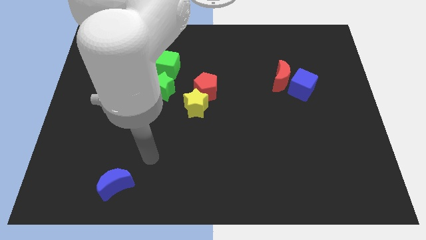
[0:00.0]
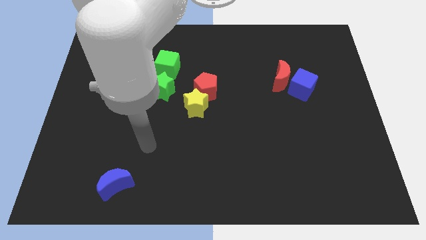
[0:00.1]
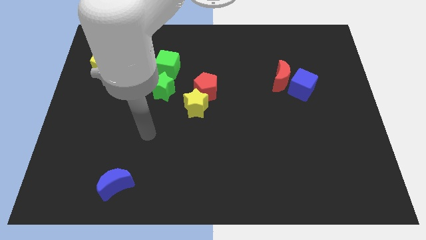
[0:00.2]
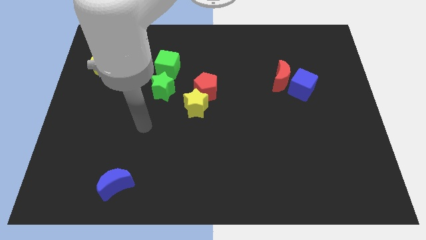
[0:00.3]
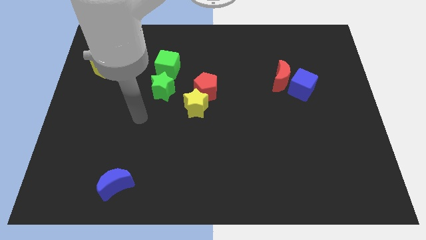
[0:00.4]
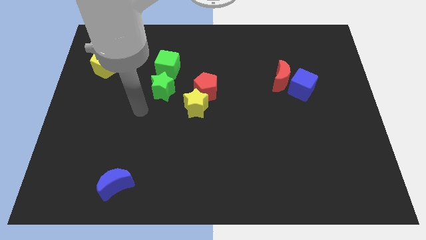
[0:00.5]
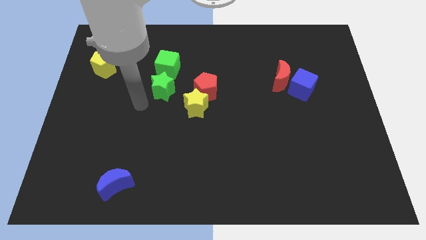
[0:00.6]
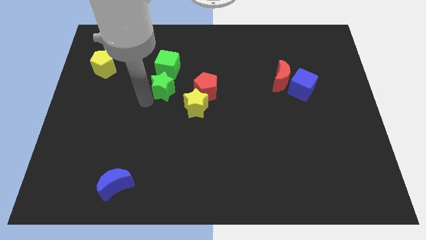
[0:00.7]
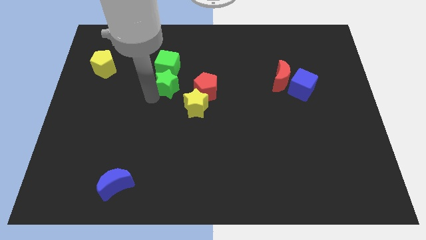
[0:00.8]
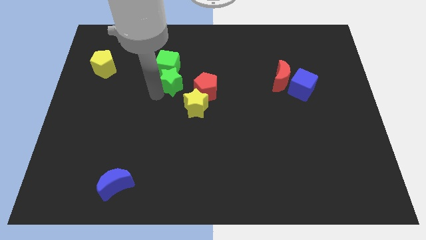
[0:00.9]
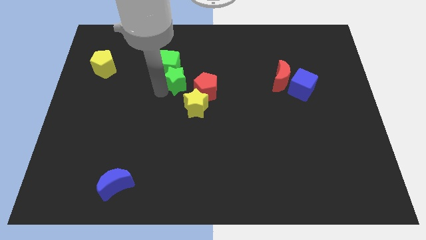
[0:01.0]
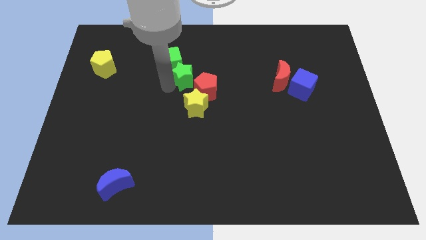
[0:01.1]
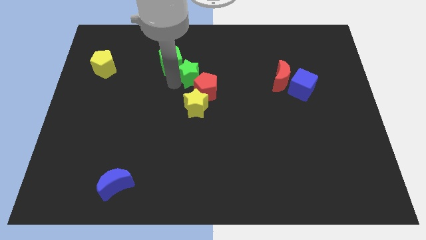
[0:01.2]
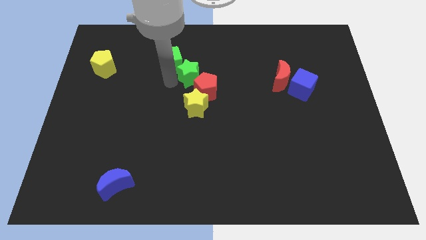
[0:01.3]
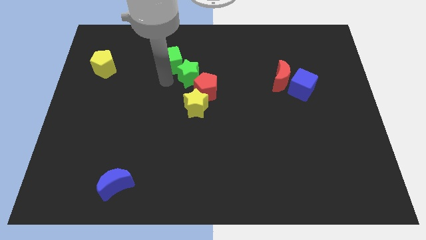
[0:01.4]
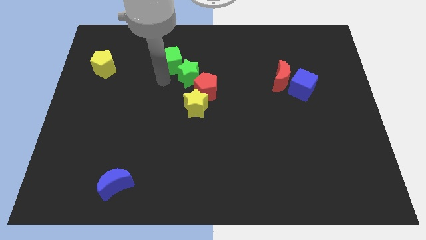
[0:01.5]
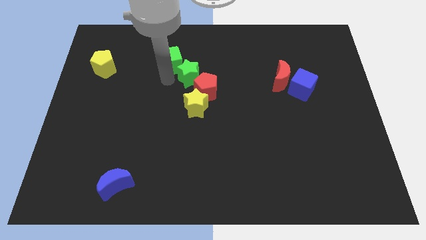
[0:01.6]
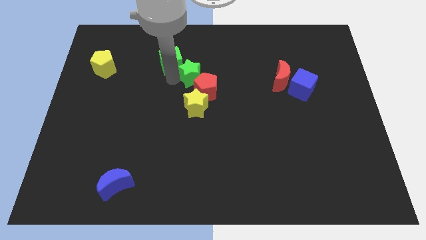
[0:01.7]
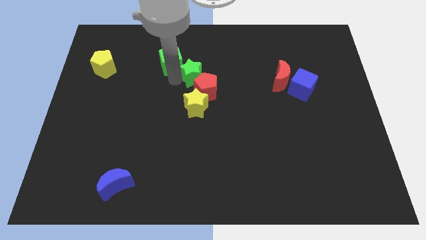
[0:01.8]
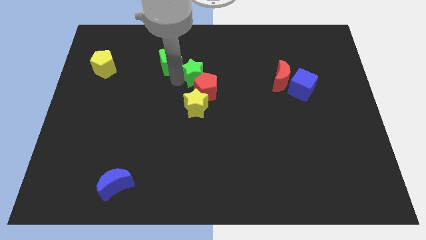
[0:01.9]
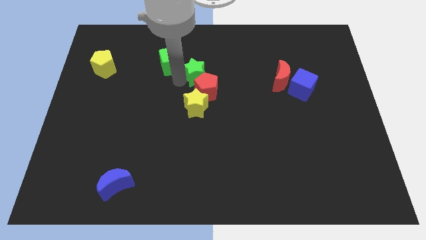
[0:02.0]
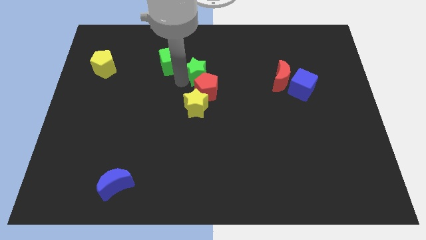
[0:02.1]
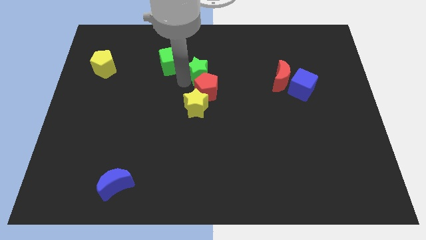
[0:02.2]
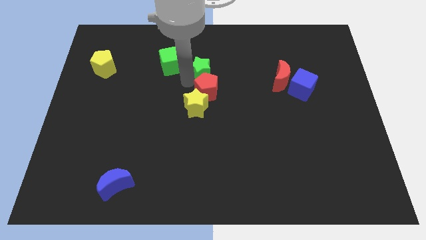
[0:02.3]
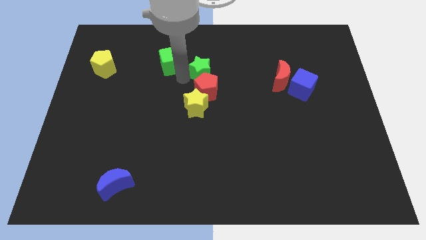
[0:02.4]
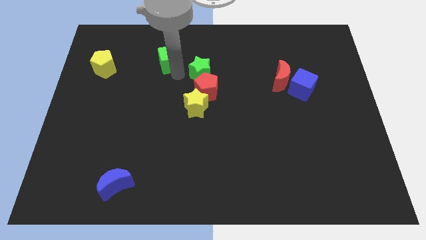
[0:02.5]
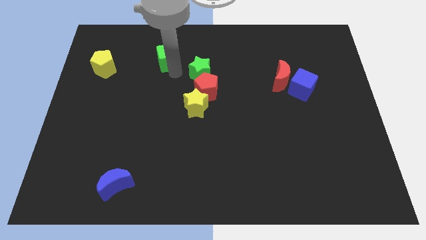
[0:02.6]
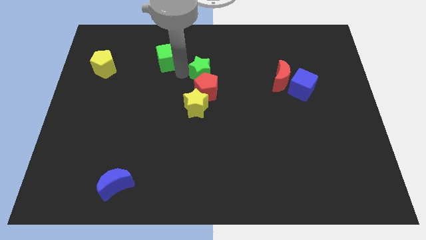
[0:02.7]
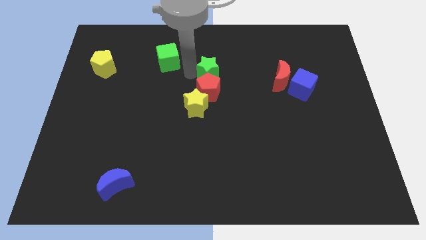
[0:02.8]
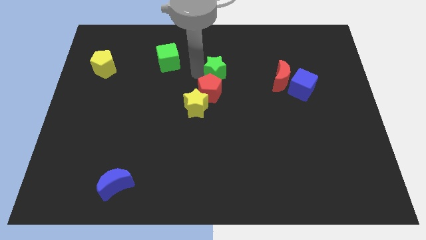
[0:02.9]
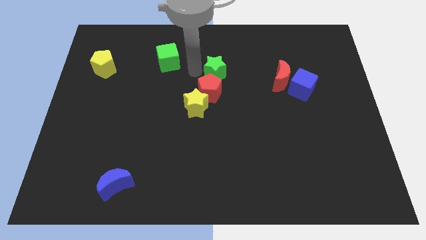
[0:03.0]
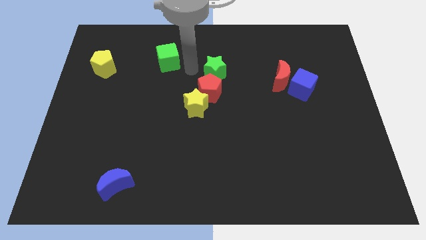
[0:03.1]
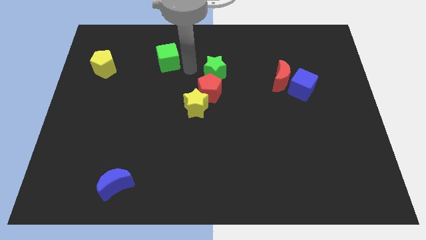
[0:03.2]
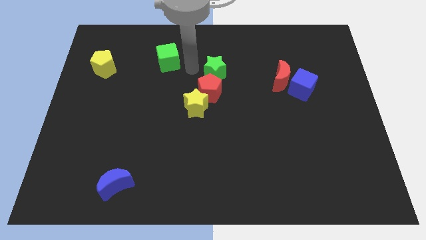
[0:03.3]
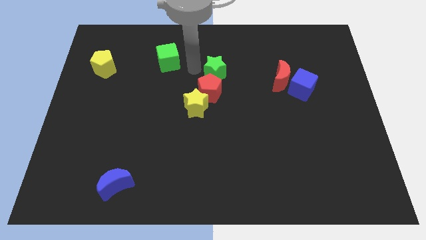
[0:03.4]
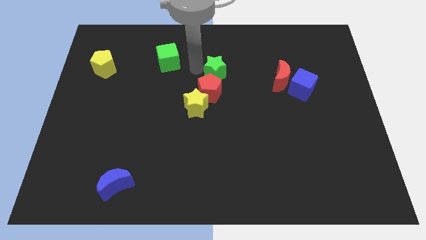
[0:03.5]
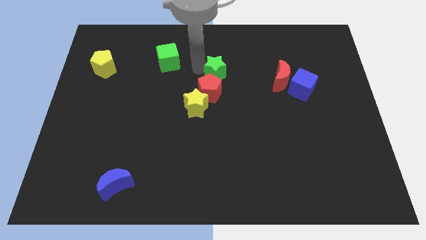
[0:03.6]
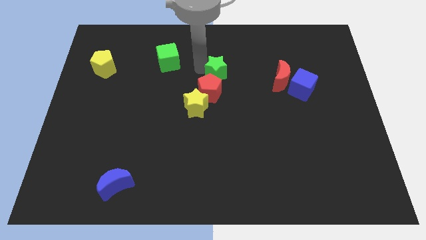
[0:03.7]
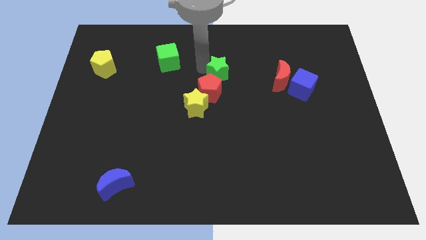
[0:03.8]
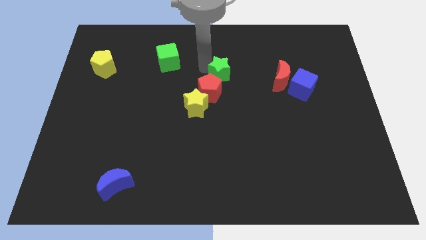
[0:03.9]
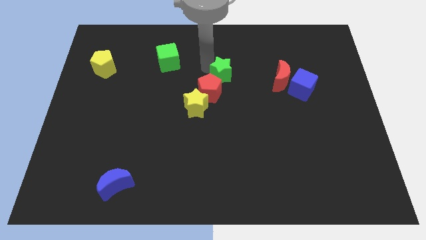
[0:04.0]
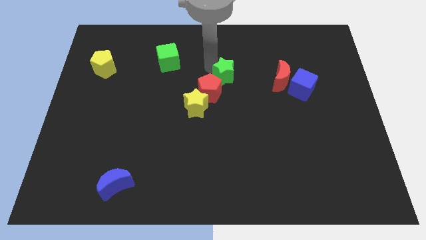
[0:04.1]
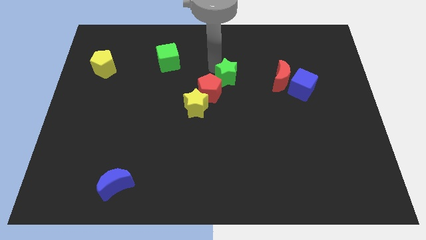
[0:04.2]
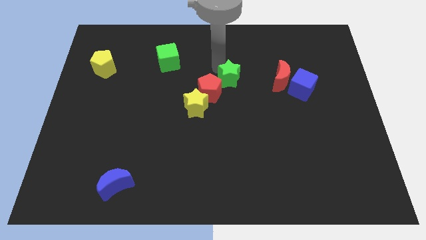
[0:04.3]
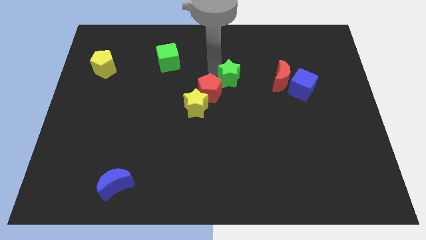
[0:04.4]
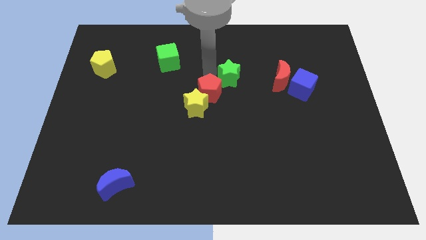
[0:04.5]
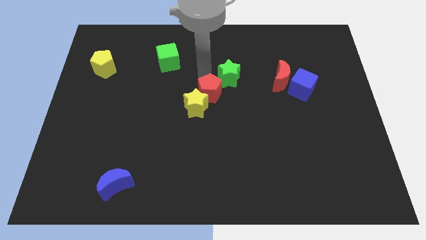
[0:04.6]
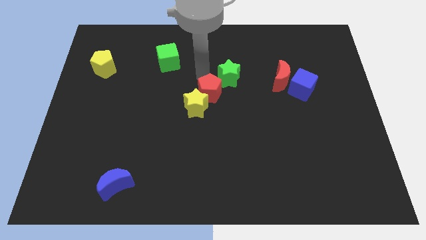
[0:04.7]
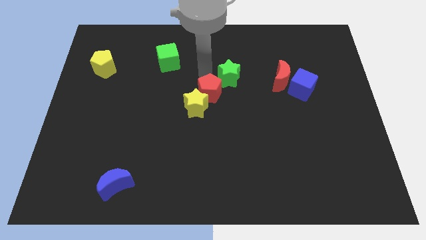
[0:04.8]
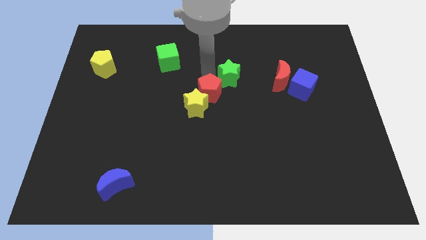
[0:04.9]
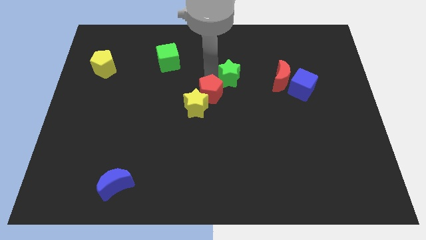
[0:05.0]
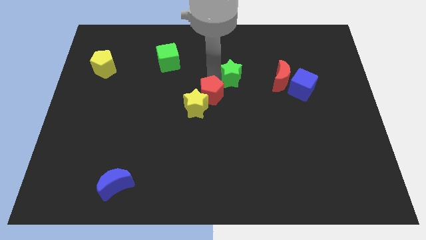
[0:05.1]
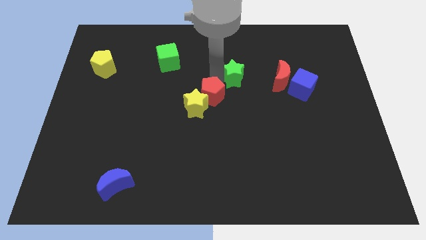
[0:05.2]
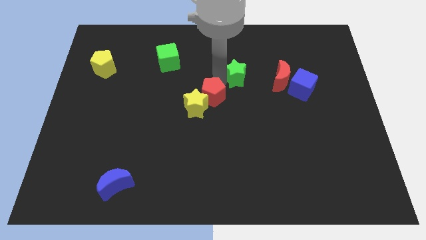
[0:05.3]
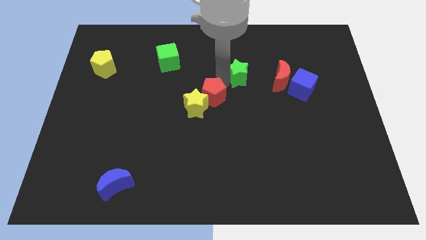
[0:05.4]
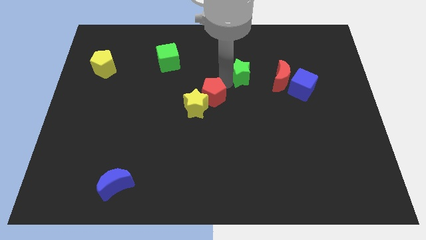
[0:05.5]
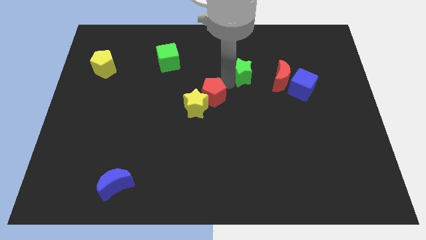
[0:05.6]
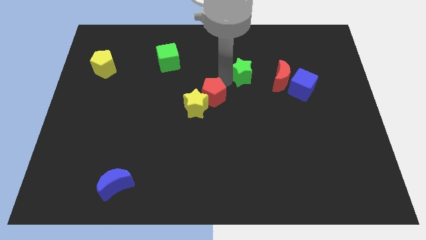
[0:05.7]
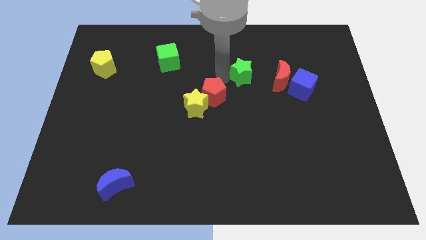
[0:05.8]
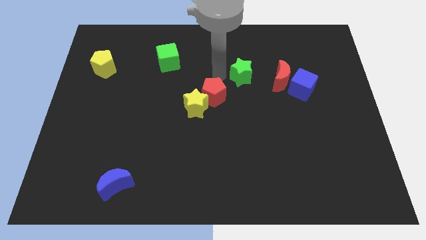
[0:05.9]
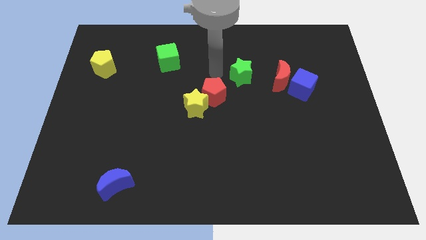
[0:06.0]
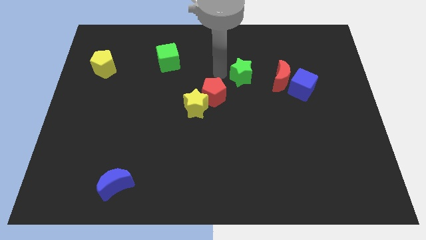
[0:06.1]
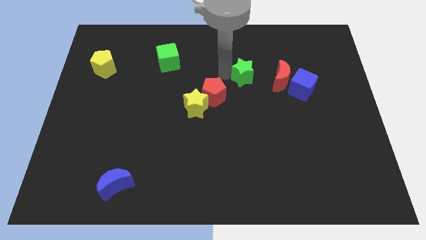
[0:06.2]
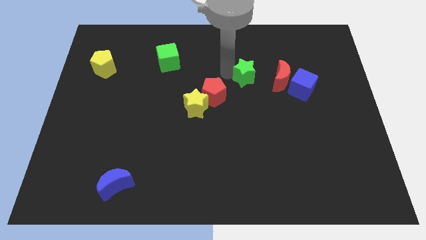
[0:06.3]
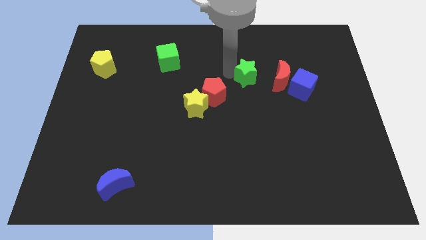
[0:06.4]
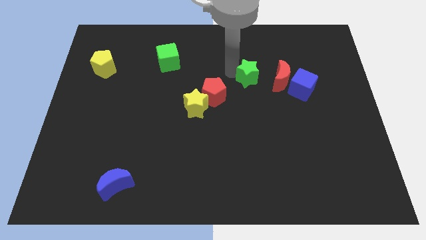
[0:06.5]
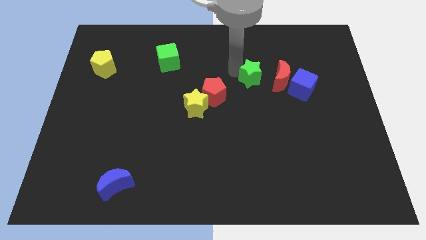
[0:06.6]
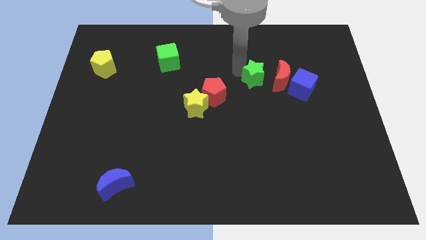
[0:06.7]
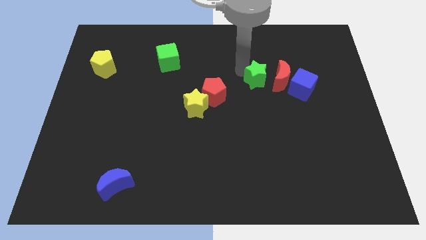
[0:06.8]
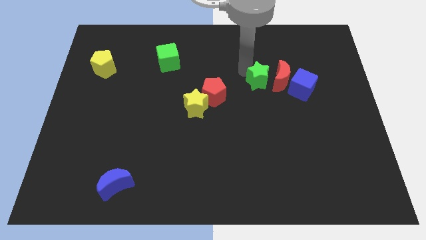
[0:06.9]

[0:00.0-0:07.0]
push the green star towards the red moon
